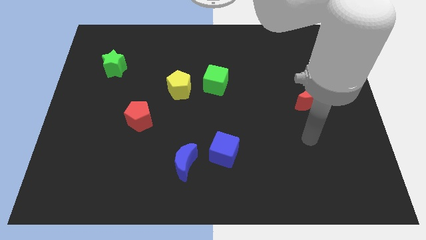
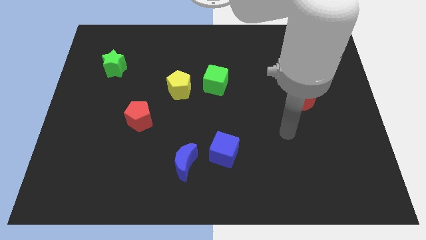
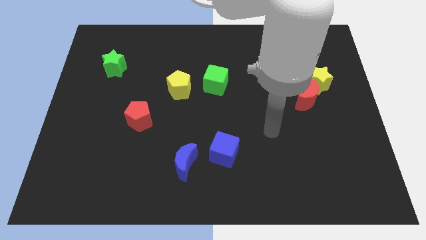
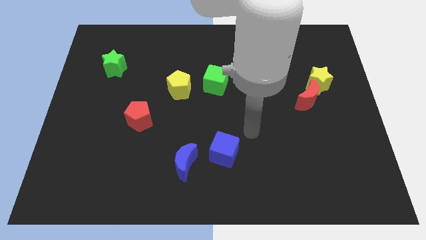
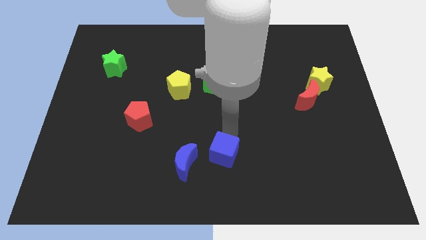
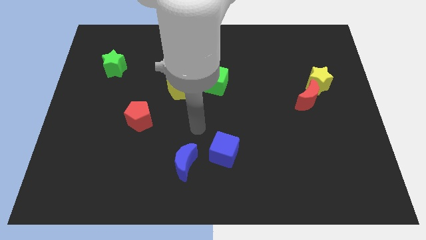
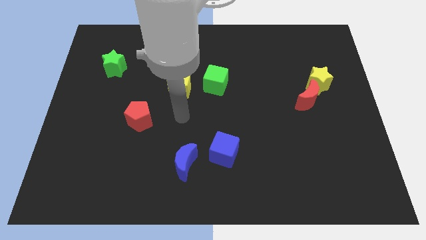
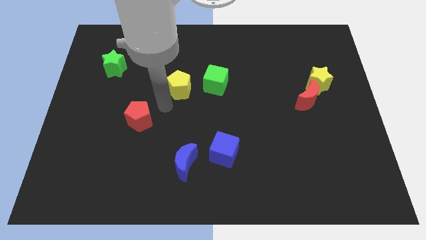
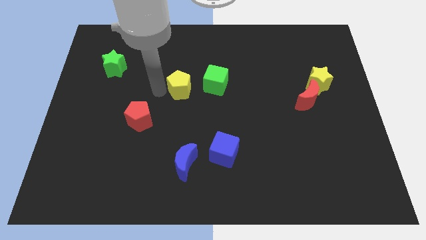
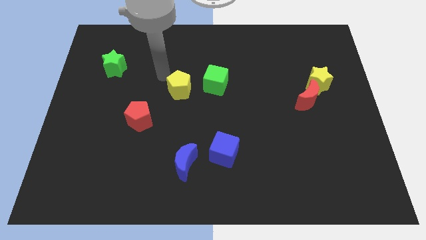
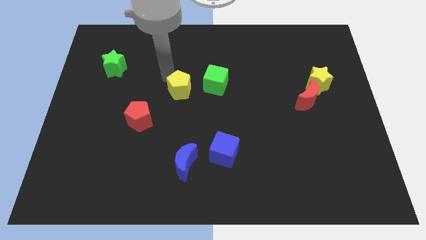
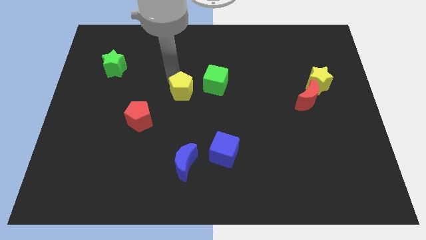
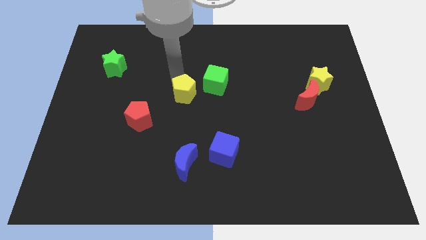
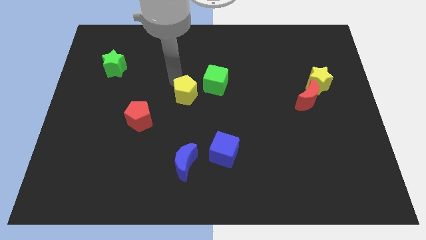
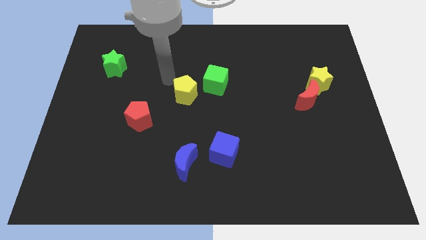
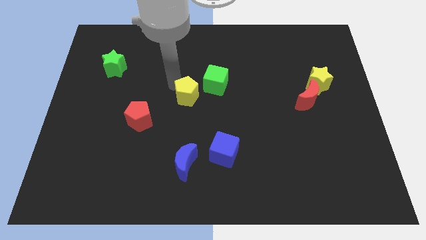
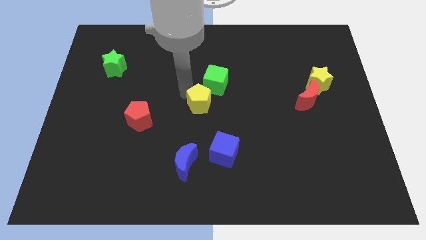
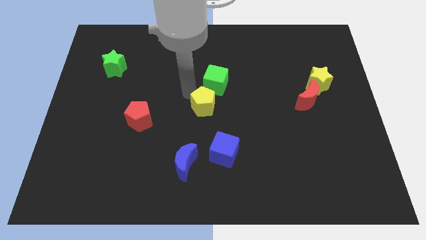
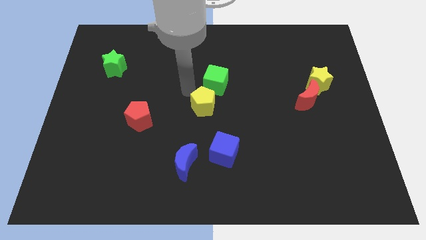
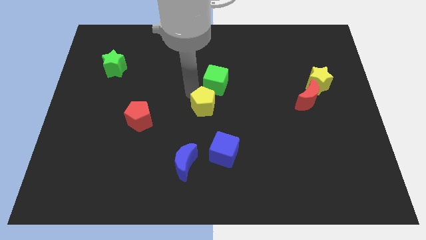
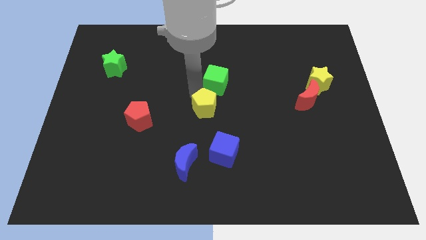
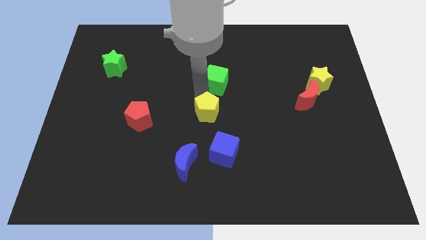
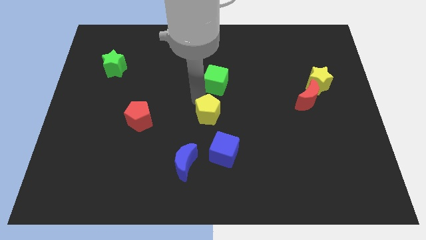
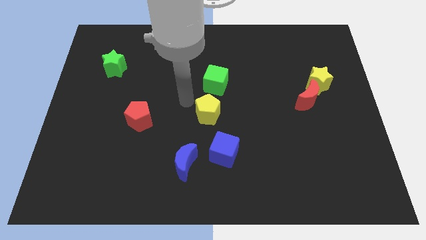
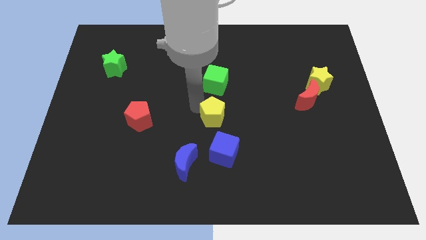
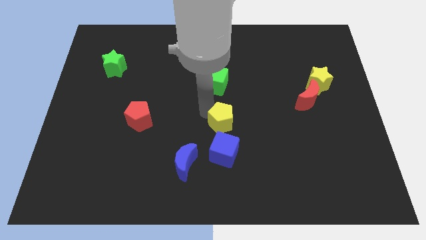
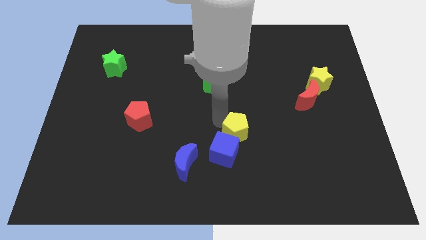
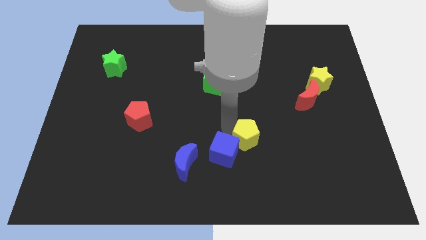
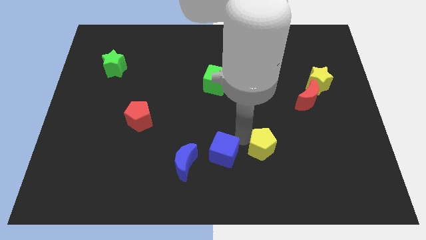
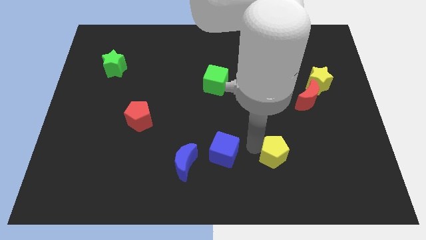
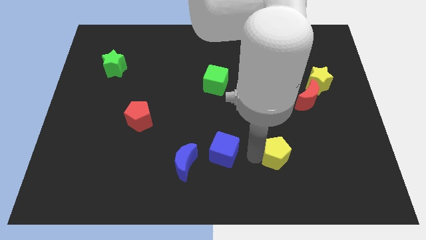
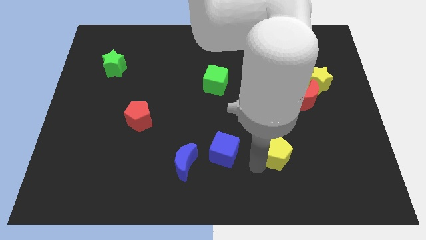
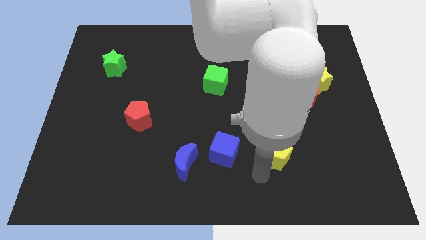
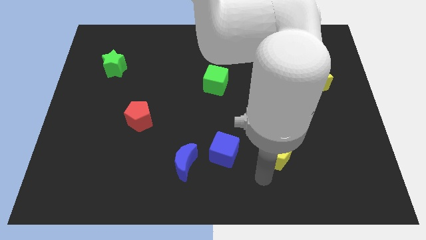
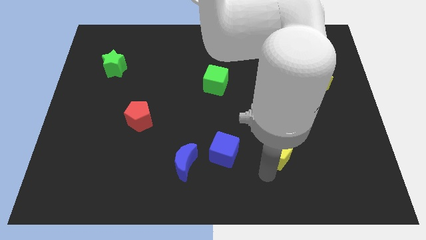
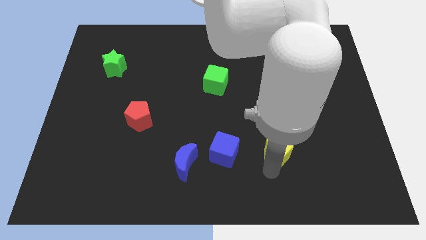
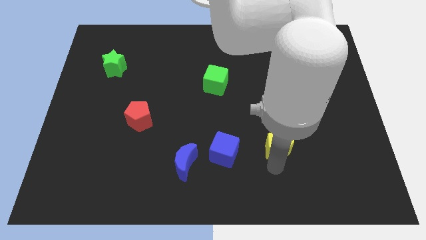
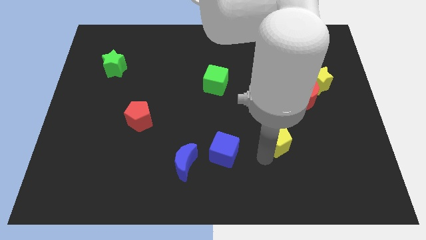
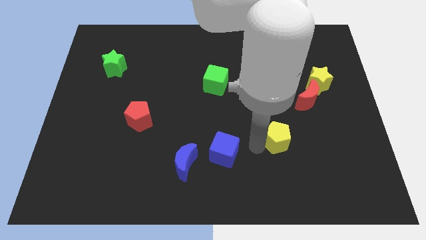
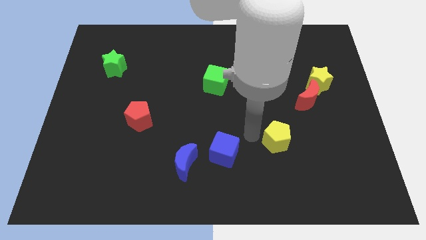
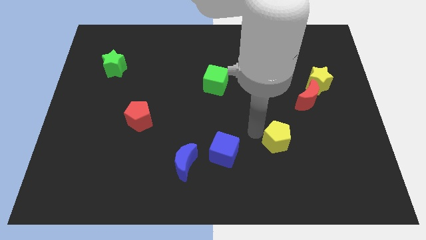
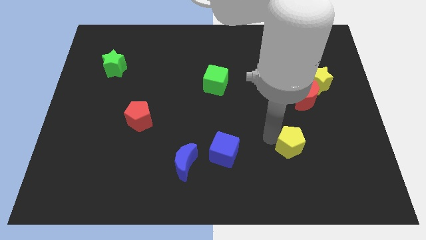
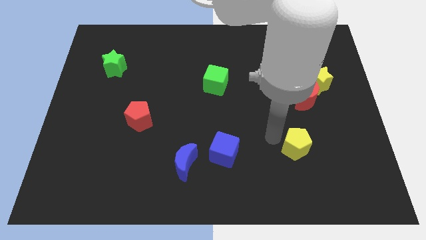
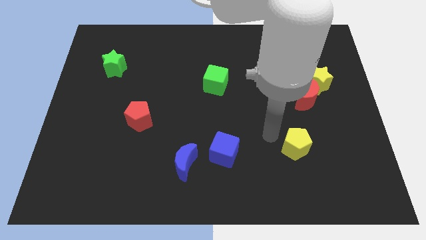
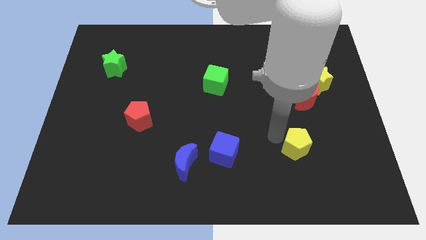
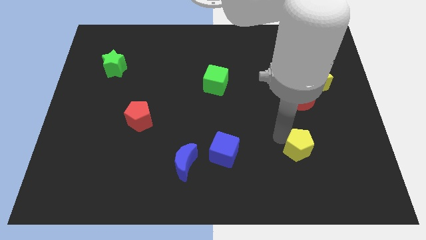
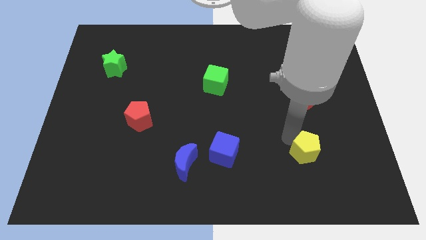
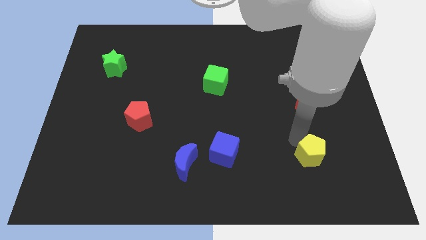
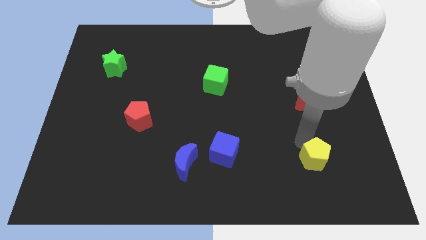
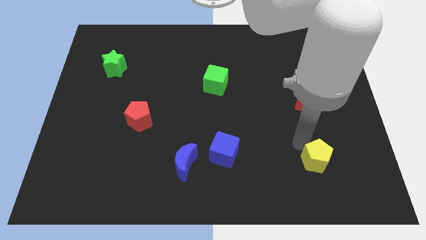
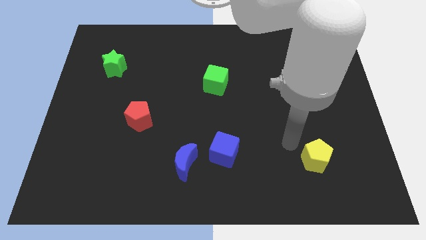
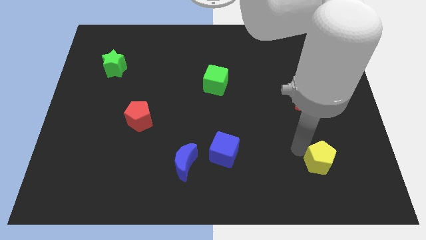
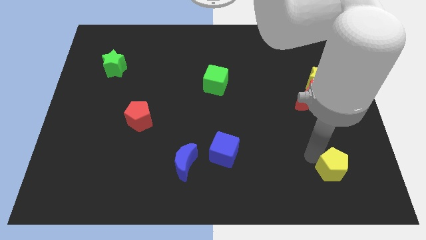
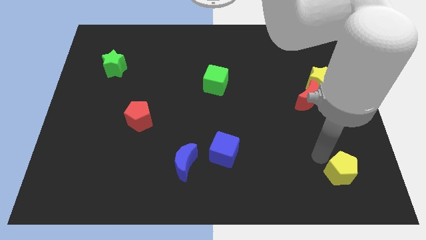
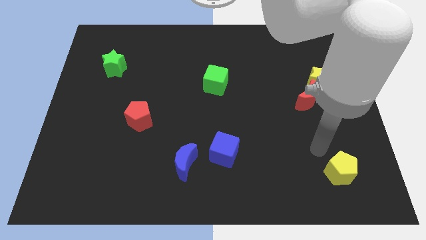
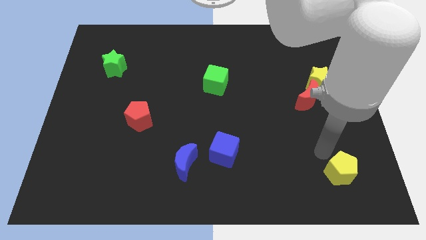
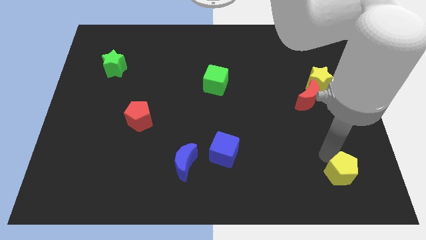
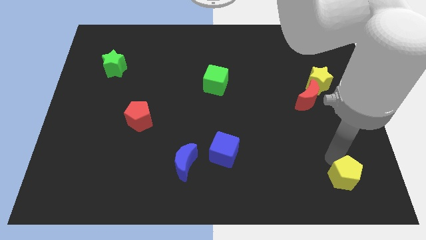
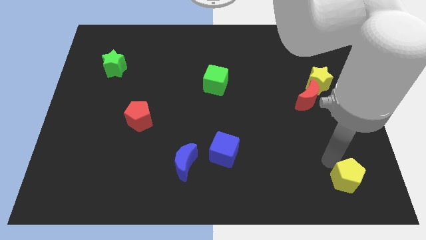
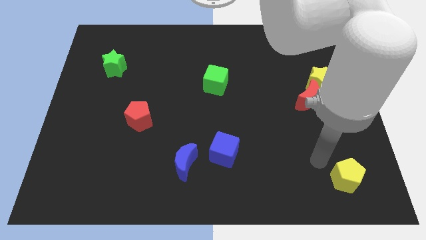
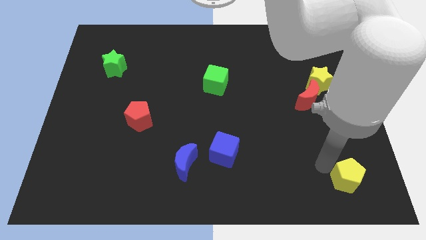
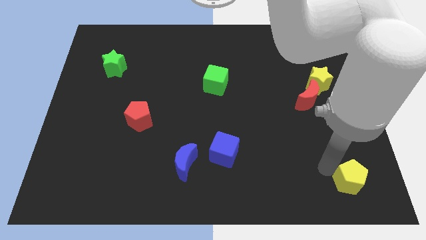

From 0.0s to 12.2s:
put the yellow pentagon to the lower right corner
